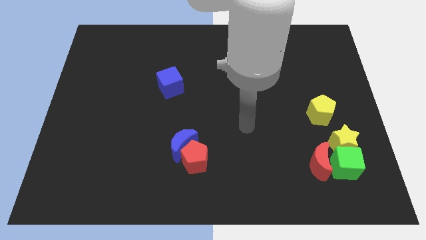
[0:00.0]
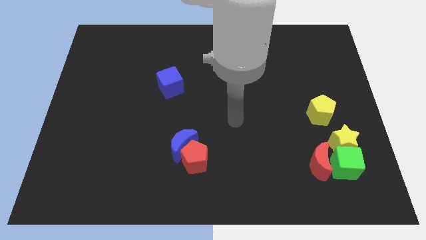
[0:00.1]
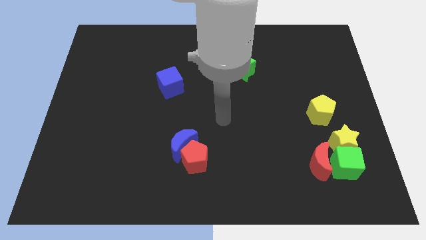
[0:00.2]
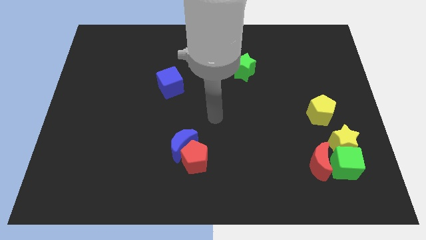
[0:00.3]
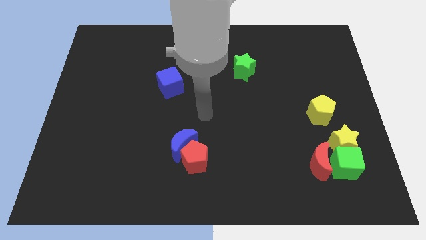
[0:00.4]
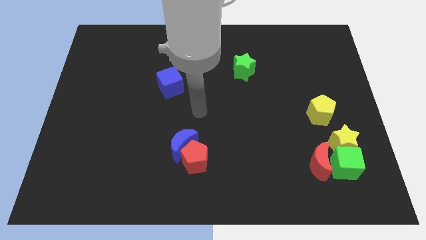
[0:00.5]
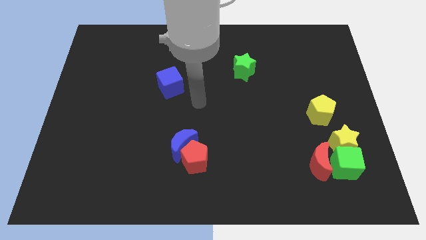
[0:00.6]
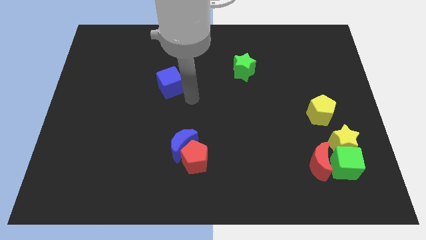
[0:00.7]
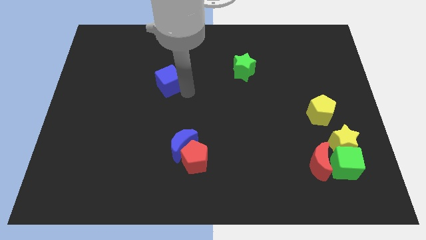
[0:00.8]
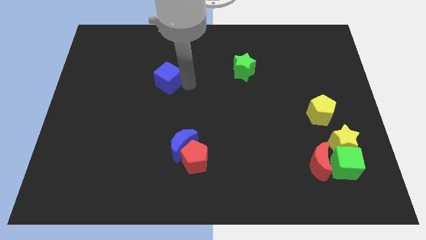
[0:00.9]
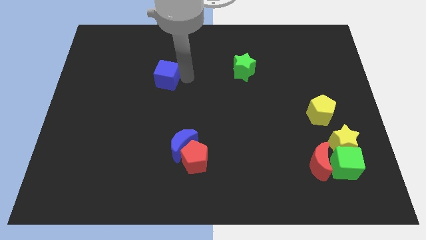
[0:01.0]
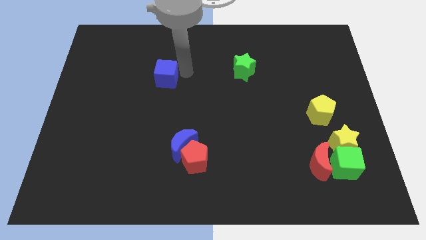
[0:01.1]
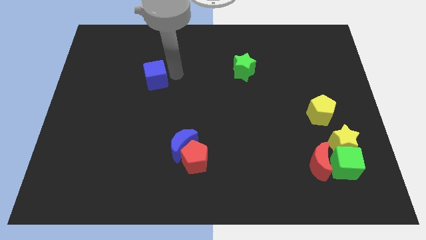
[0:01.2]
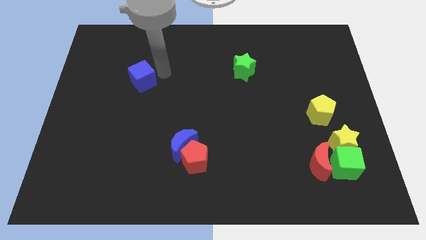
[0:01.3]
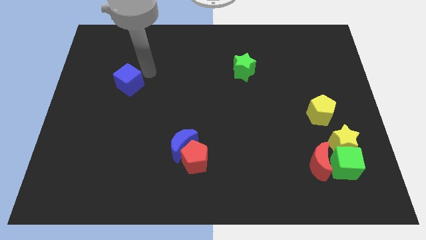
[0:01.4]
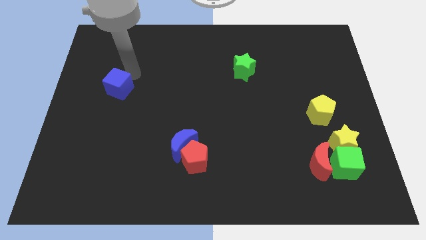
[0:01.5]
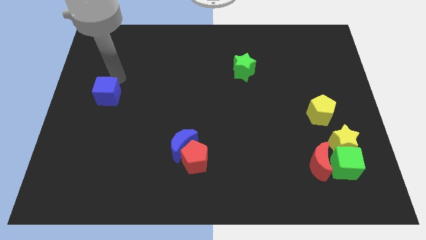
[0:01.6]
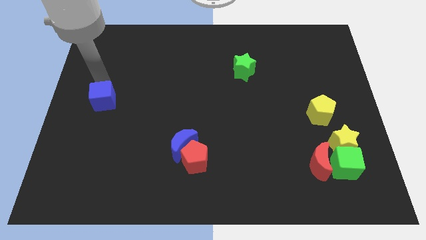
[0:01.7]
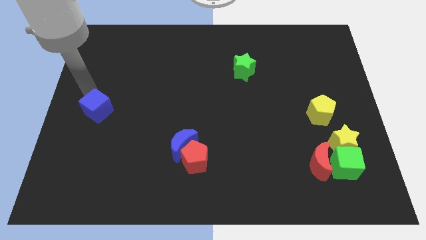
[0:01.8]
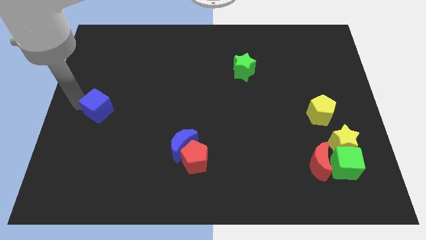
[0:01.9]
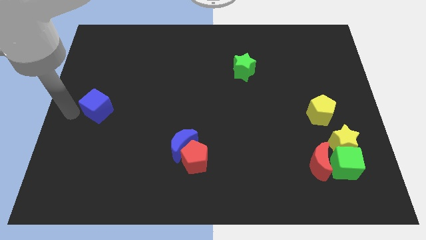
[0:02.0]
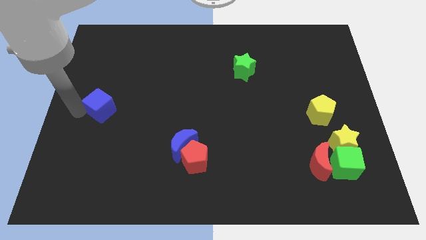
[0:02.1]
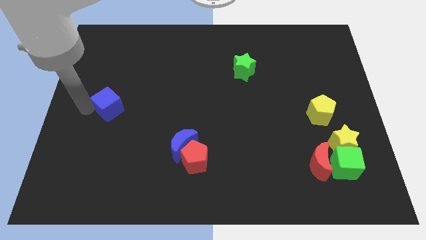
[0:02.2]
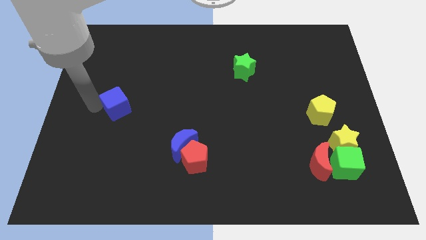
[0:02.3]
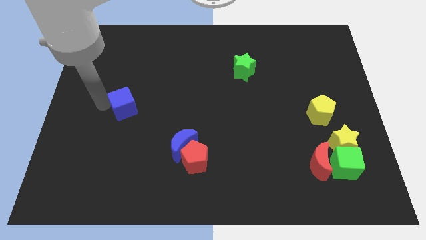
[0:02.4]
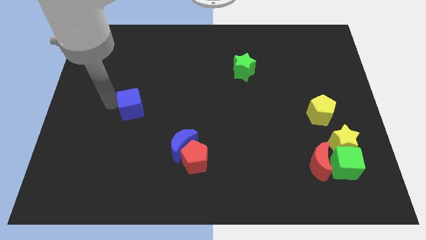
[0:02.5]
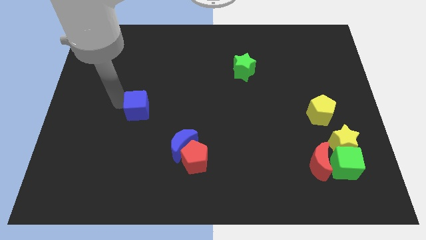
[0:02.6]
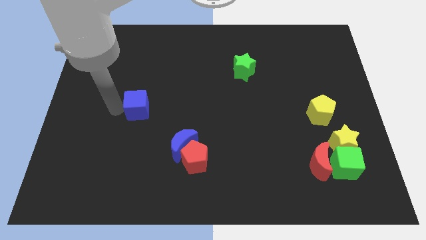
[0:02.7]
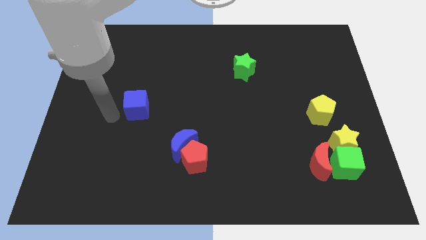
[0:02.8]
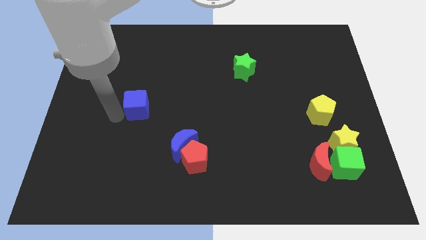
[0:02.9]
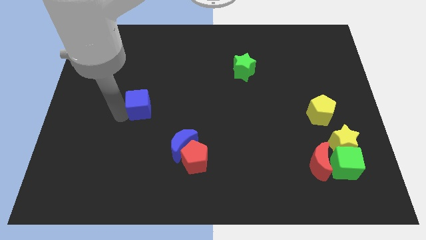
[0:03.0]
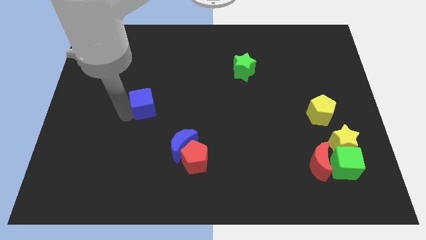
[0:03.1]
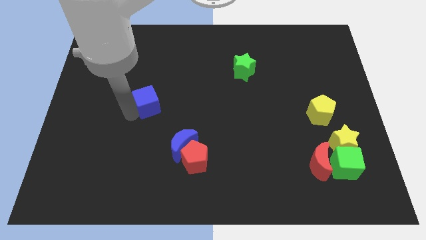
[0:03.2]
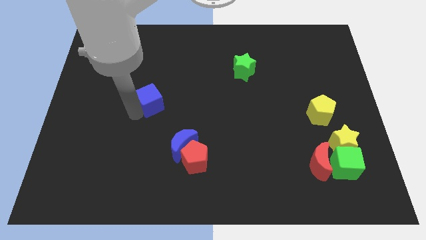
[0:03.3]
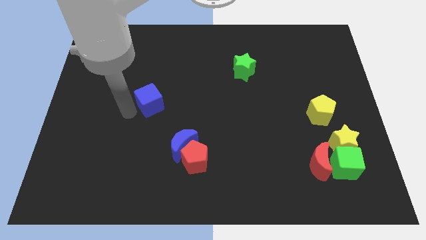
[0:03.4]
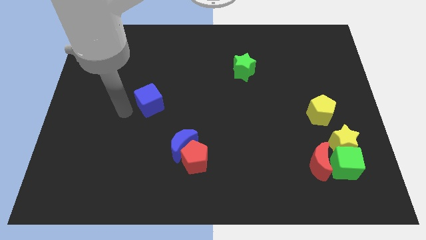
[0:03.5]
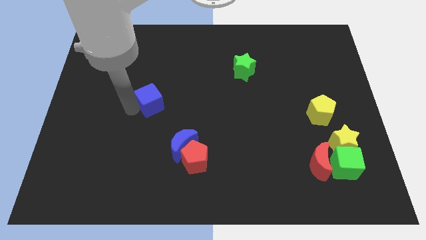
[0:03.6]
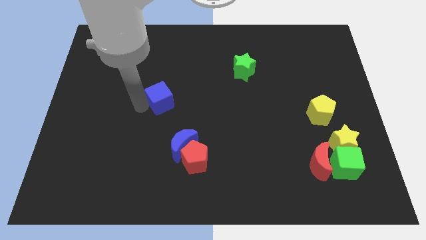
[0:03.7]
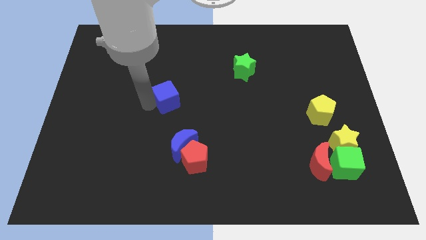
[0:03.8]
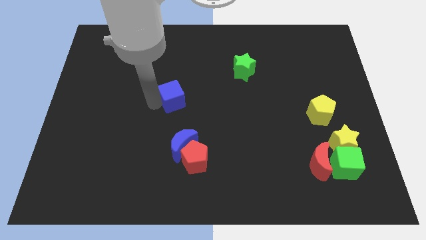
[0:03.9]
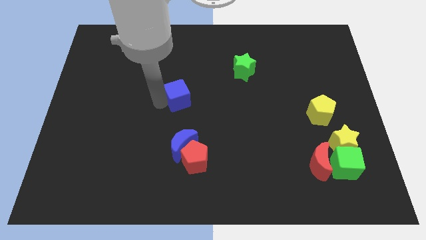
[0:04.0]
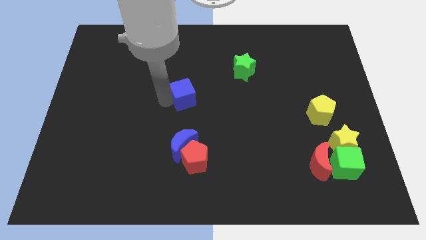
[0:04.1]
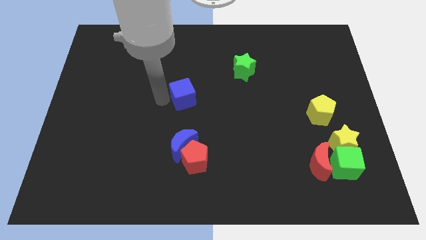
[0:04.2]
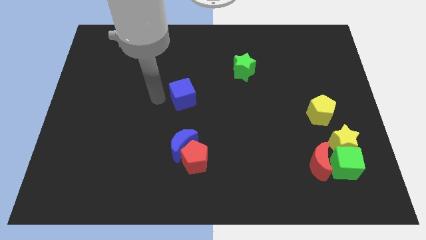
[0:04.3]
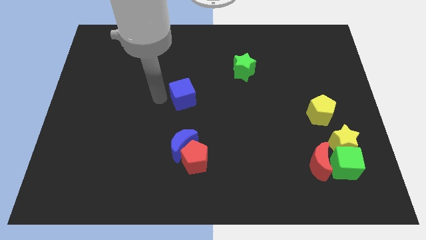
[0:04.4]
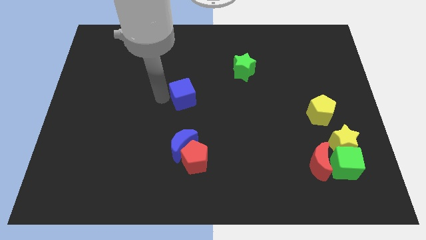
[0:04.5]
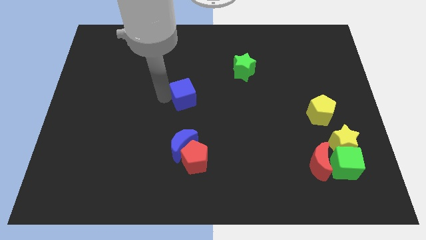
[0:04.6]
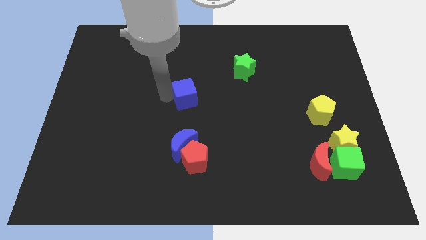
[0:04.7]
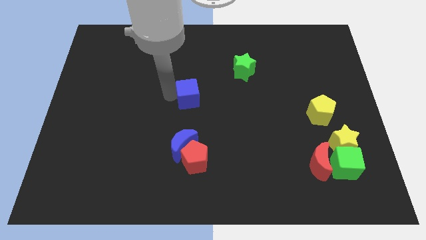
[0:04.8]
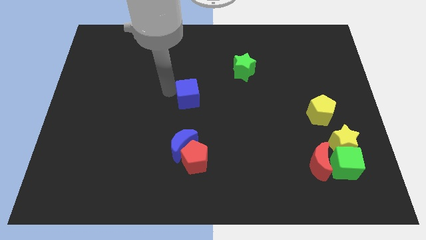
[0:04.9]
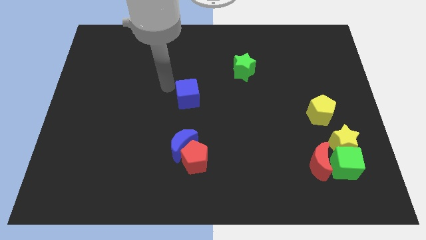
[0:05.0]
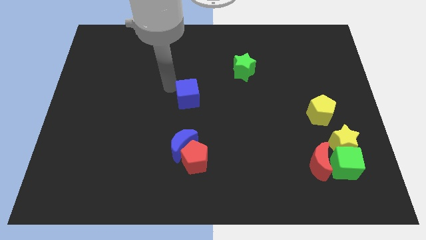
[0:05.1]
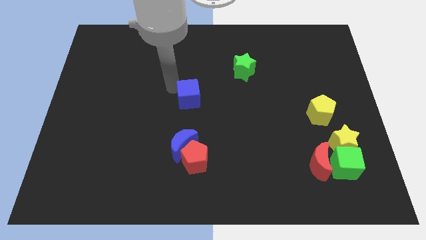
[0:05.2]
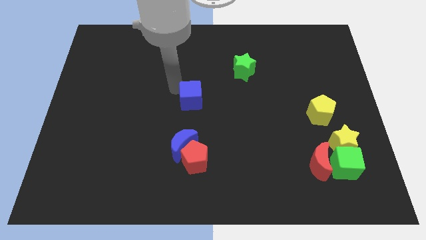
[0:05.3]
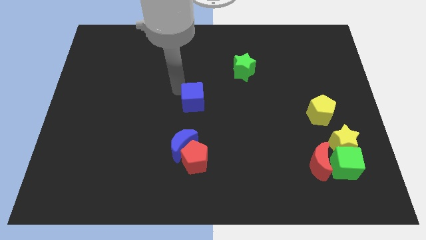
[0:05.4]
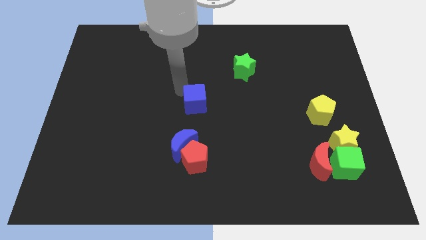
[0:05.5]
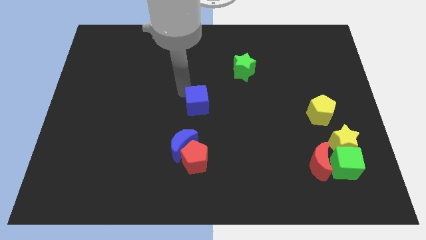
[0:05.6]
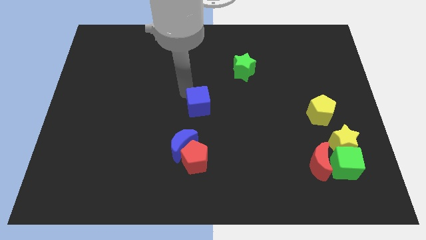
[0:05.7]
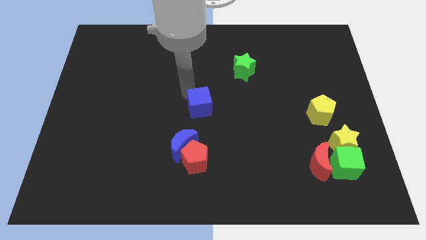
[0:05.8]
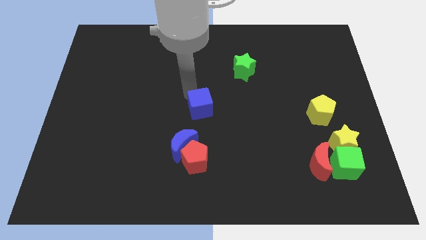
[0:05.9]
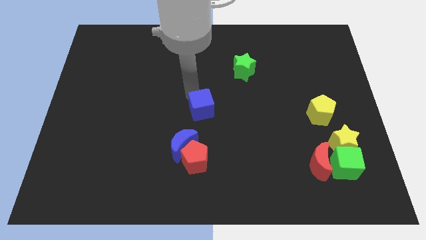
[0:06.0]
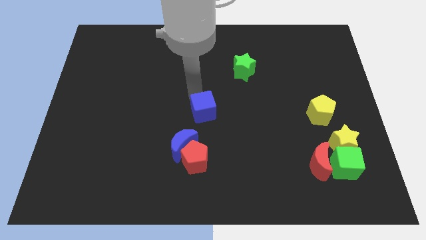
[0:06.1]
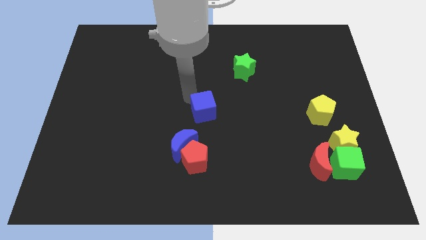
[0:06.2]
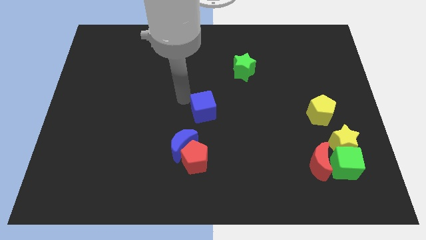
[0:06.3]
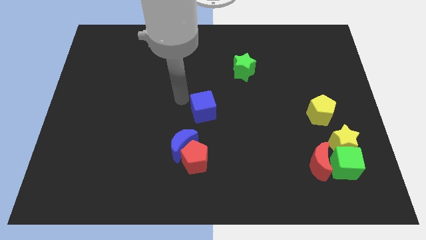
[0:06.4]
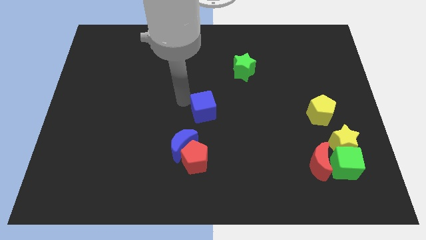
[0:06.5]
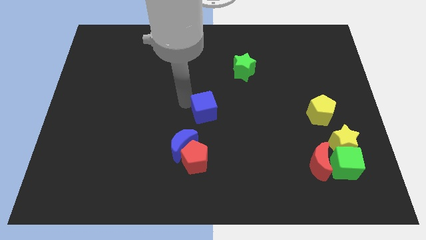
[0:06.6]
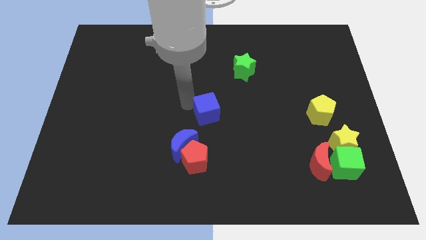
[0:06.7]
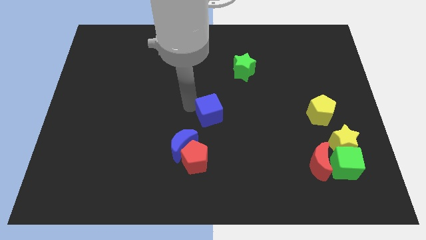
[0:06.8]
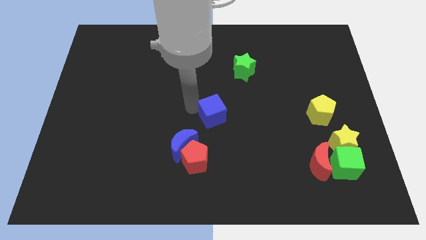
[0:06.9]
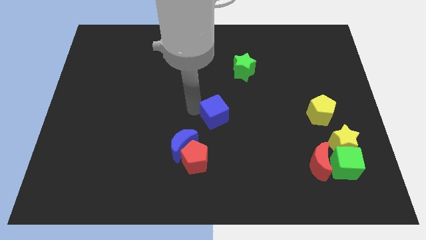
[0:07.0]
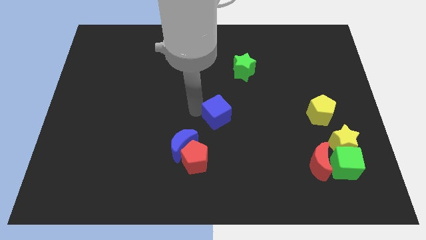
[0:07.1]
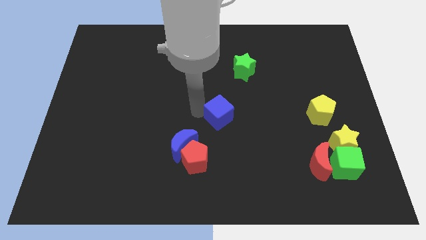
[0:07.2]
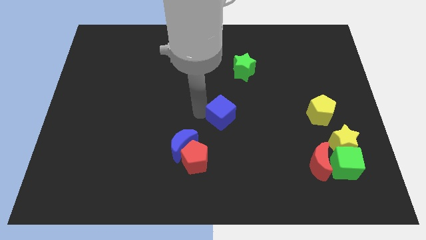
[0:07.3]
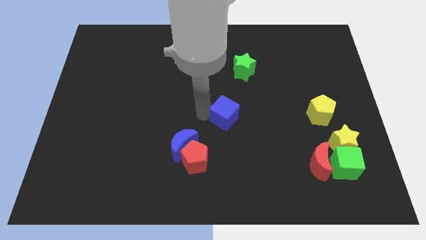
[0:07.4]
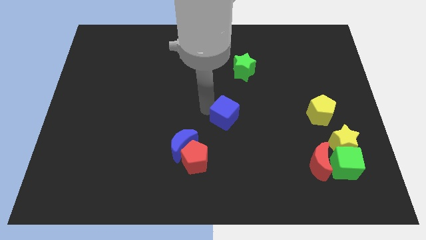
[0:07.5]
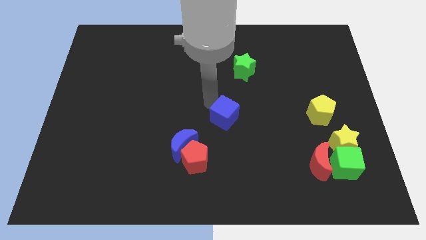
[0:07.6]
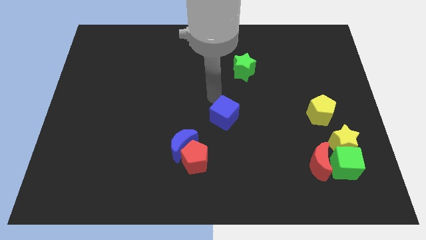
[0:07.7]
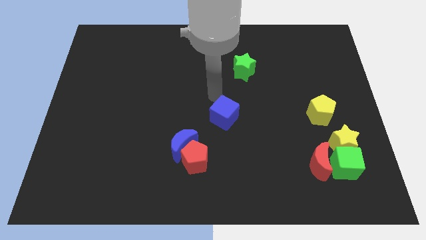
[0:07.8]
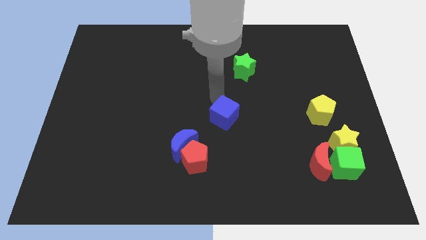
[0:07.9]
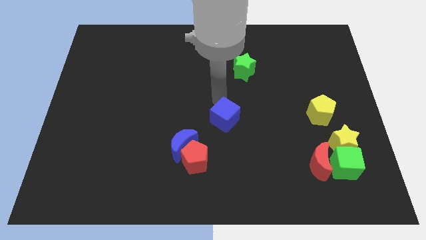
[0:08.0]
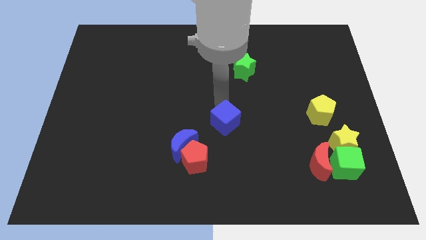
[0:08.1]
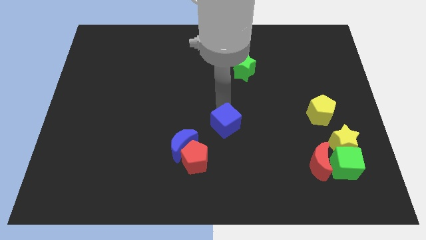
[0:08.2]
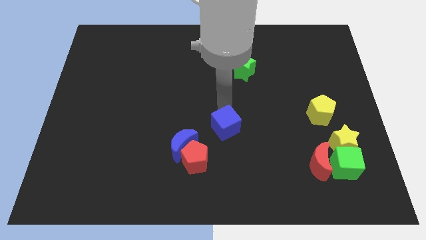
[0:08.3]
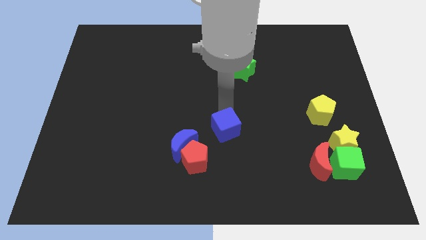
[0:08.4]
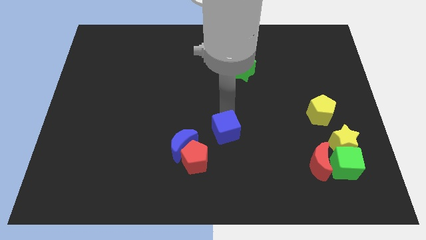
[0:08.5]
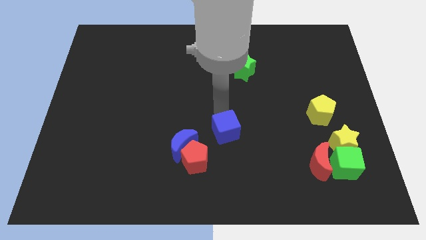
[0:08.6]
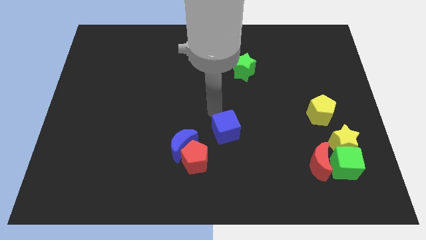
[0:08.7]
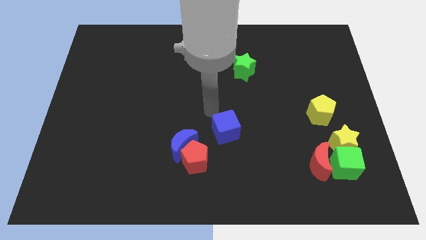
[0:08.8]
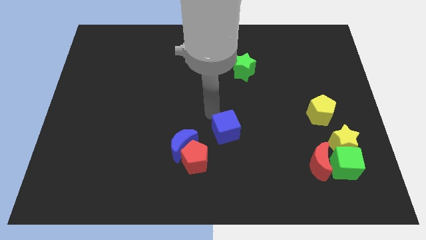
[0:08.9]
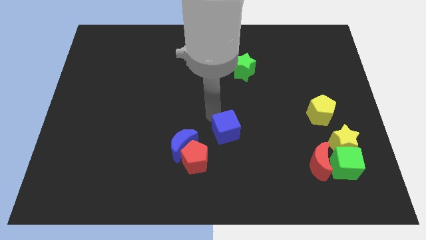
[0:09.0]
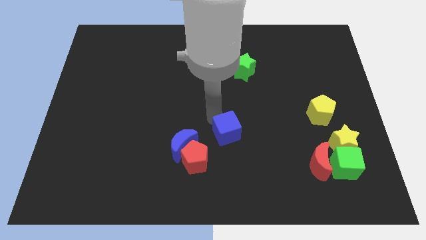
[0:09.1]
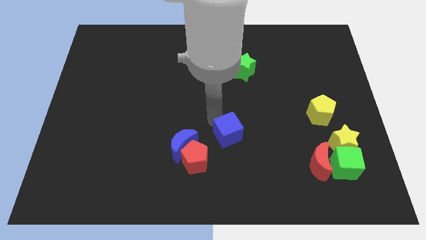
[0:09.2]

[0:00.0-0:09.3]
move the blue cube downwards and then to the right
